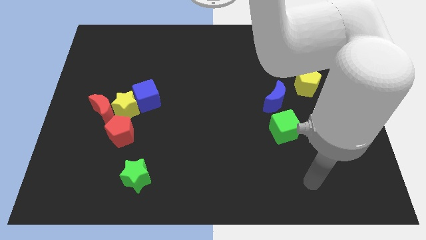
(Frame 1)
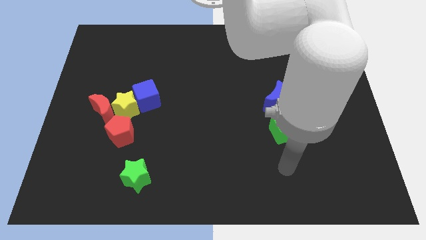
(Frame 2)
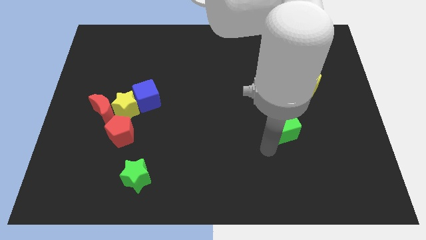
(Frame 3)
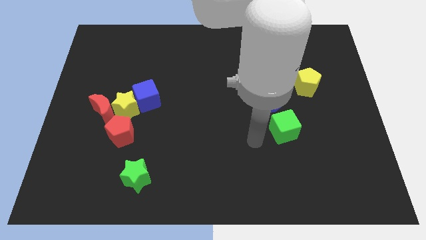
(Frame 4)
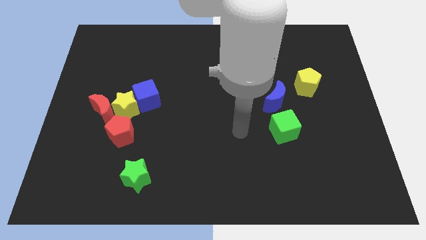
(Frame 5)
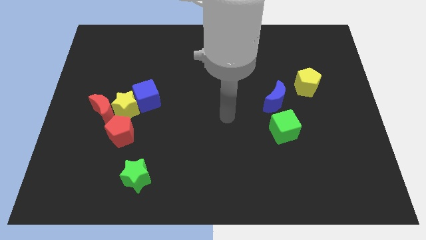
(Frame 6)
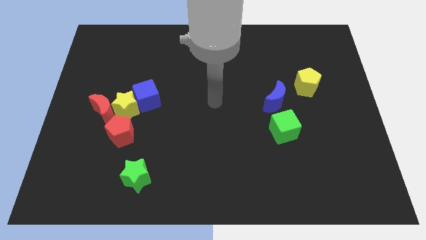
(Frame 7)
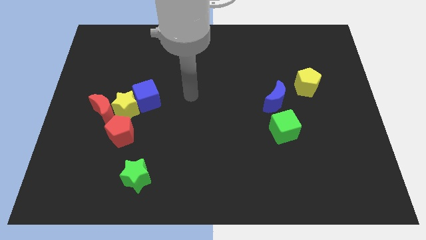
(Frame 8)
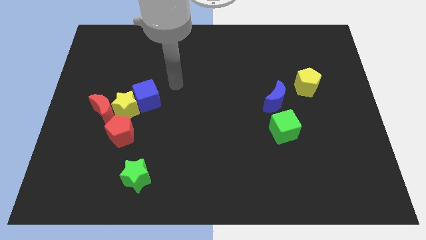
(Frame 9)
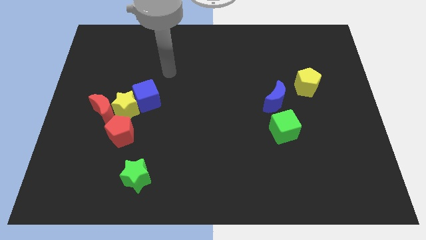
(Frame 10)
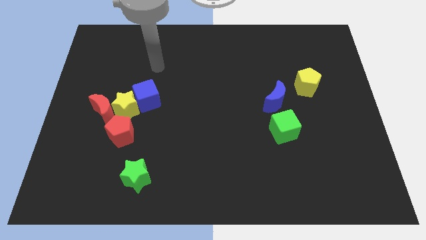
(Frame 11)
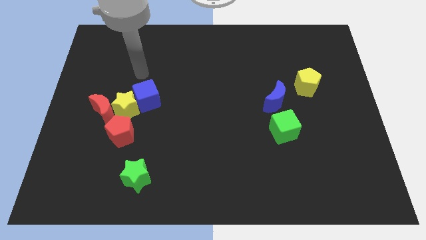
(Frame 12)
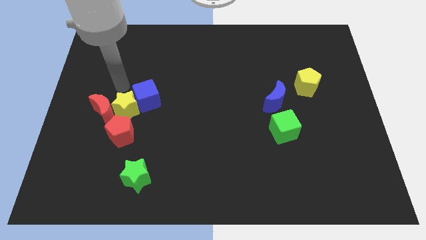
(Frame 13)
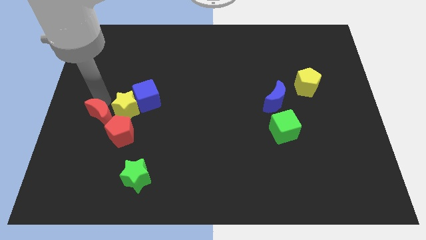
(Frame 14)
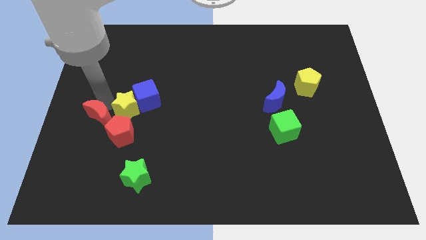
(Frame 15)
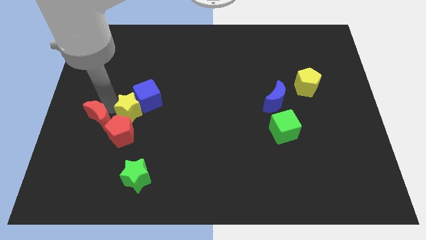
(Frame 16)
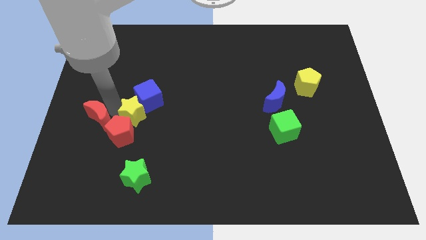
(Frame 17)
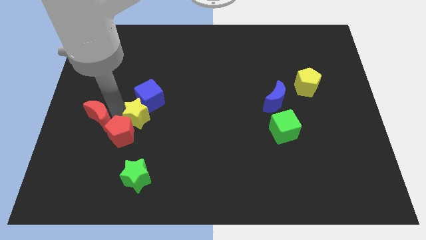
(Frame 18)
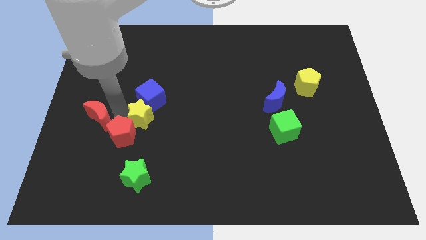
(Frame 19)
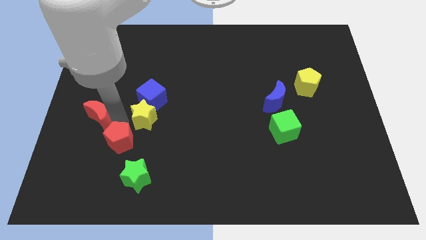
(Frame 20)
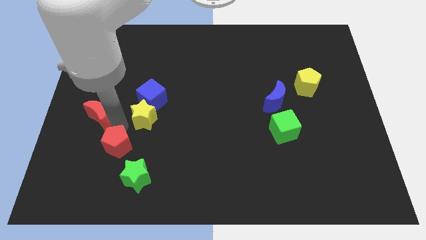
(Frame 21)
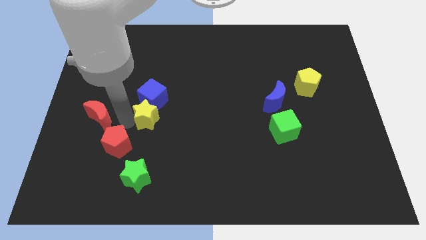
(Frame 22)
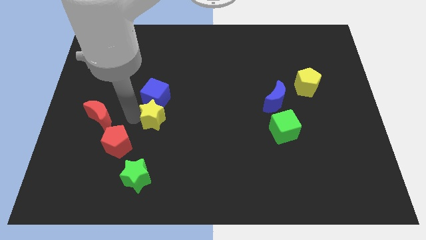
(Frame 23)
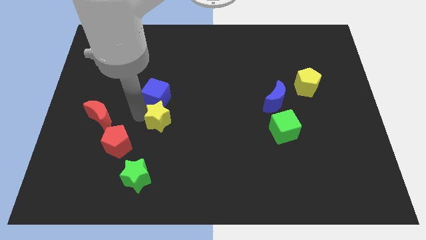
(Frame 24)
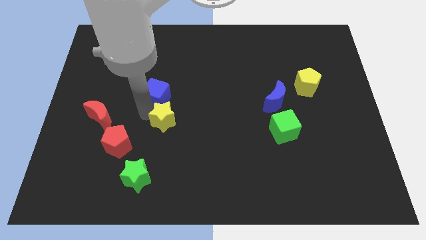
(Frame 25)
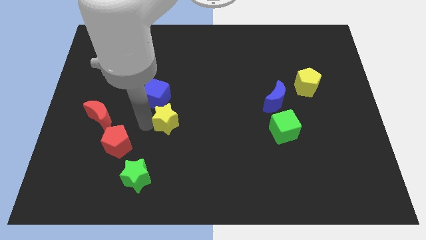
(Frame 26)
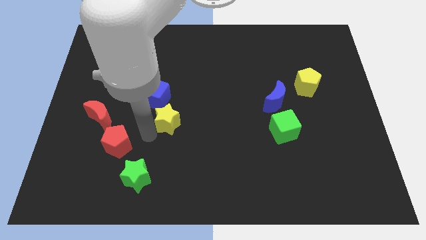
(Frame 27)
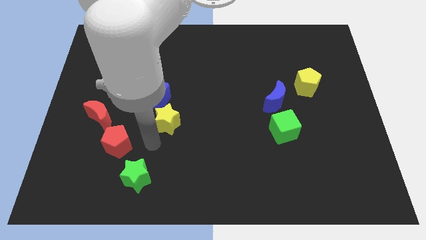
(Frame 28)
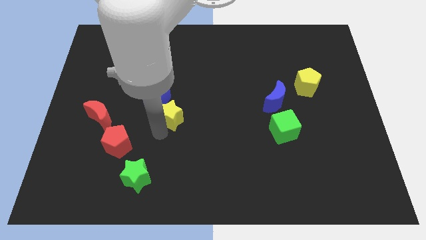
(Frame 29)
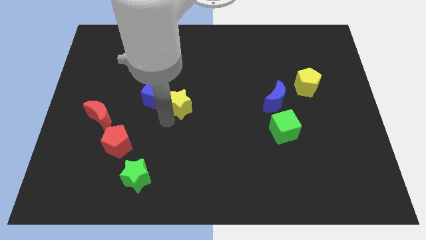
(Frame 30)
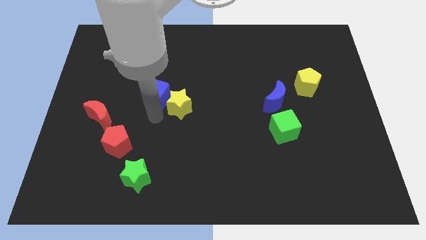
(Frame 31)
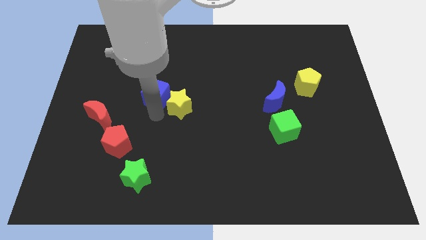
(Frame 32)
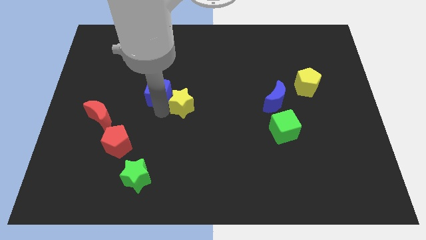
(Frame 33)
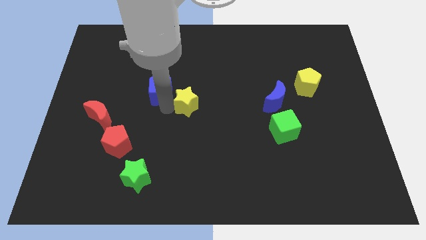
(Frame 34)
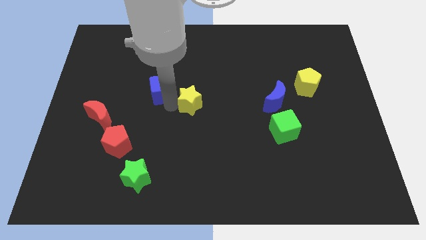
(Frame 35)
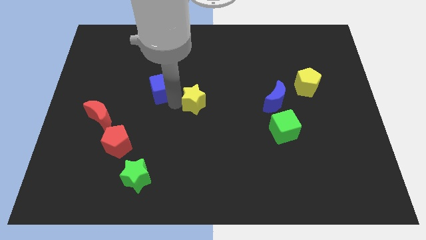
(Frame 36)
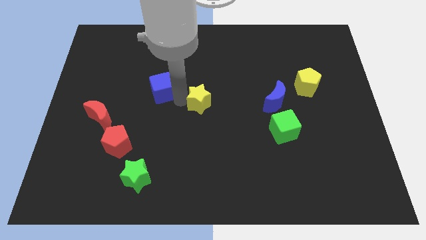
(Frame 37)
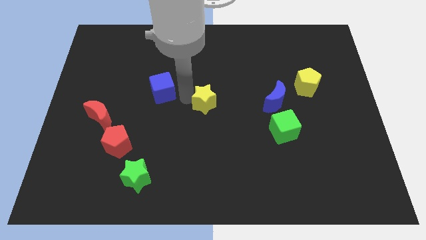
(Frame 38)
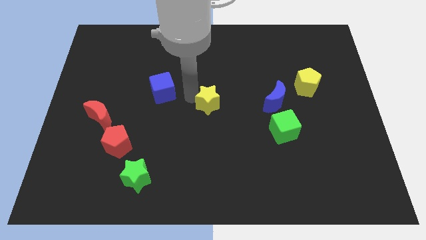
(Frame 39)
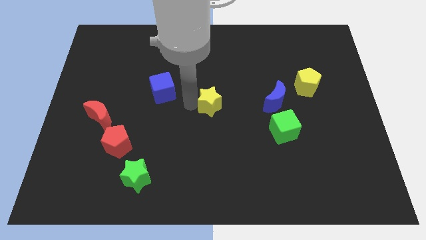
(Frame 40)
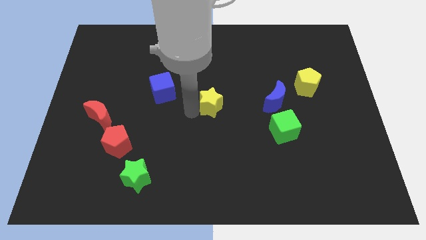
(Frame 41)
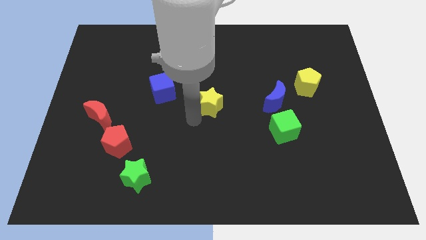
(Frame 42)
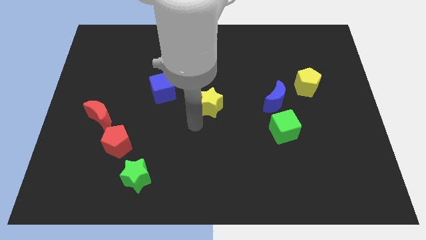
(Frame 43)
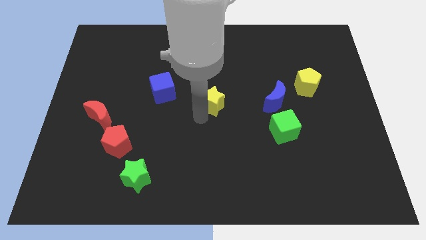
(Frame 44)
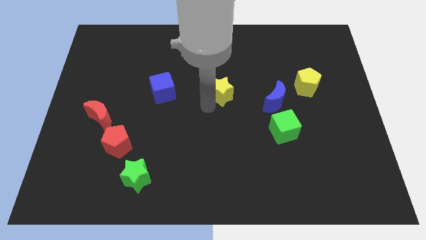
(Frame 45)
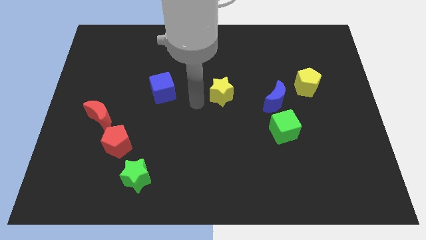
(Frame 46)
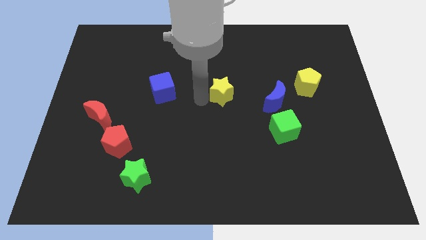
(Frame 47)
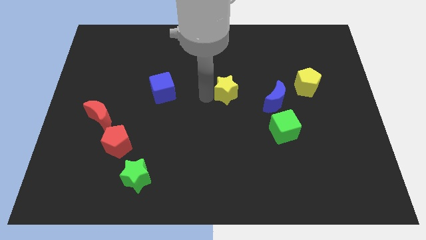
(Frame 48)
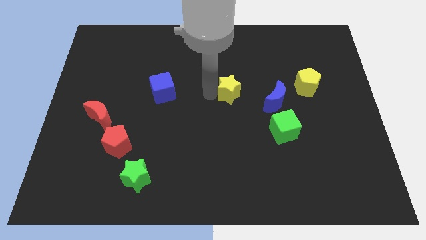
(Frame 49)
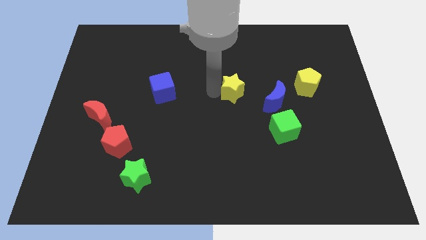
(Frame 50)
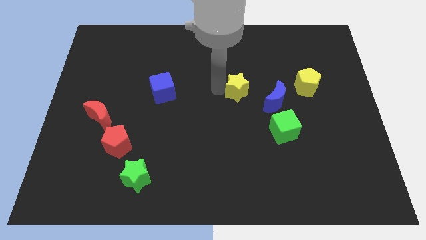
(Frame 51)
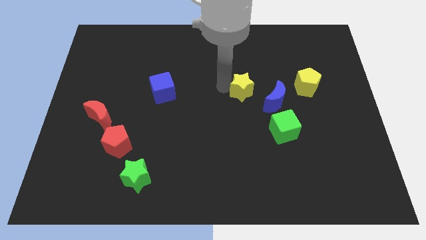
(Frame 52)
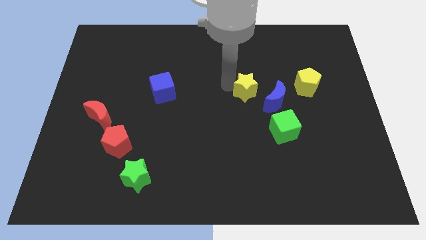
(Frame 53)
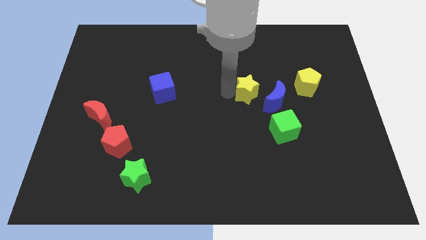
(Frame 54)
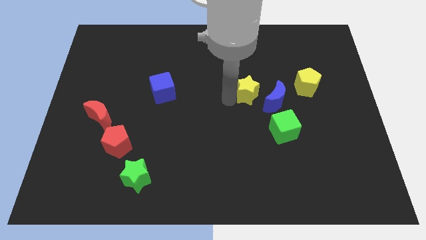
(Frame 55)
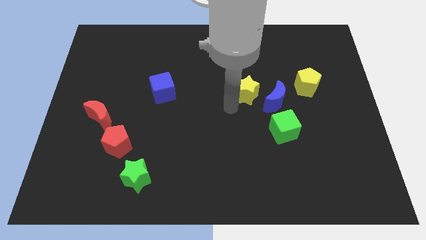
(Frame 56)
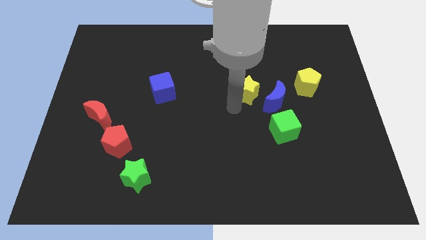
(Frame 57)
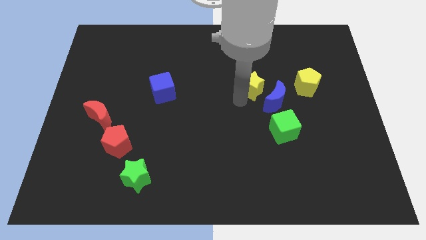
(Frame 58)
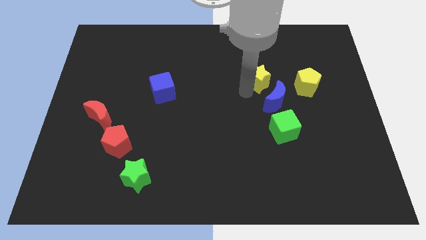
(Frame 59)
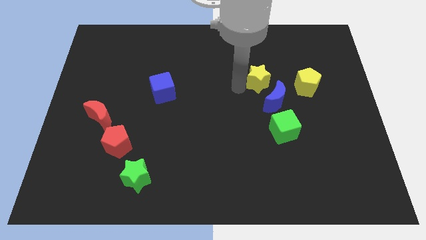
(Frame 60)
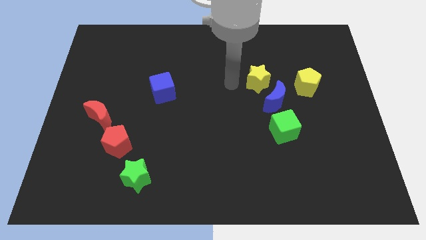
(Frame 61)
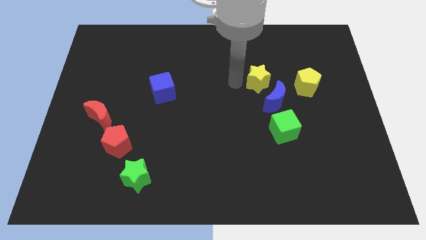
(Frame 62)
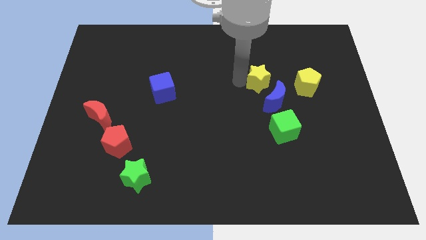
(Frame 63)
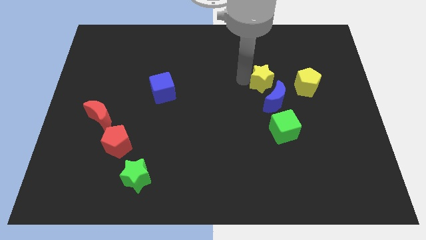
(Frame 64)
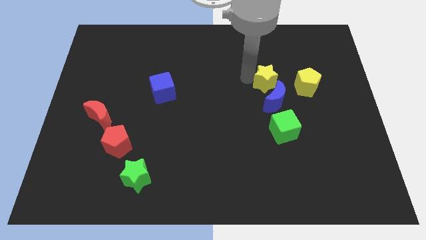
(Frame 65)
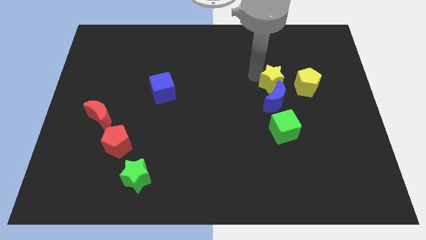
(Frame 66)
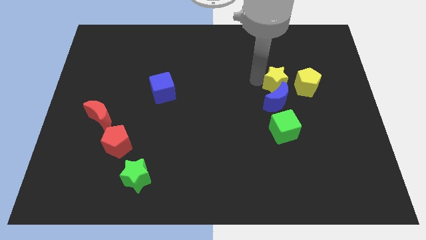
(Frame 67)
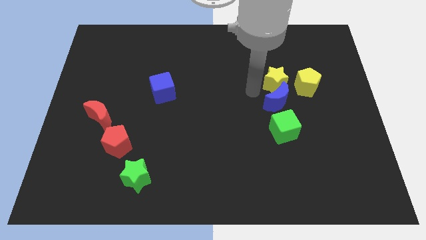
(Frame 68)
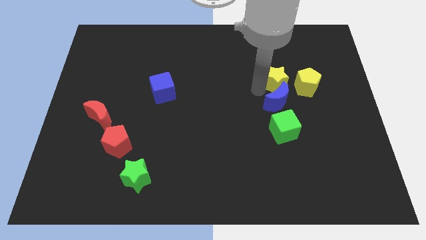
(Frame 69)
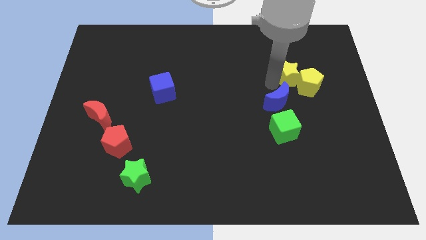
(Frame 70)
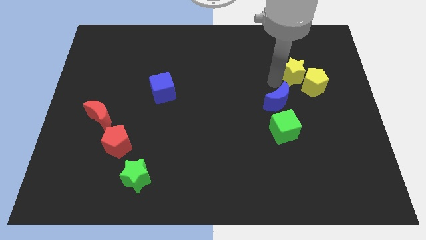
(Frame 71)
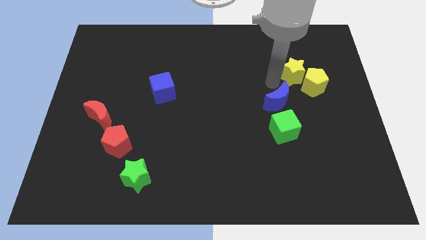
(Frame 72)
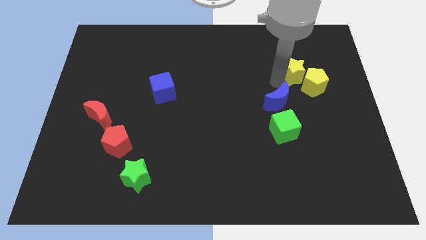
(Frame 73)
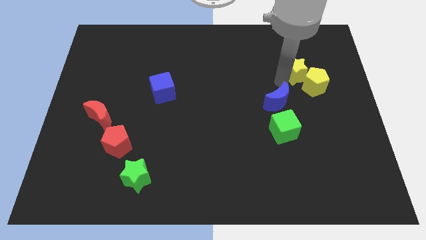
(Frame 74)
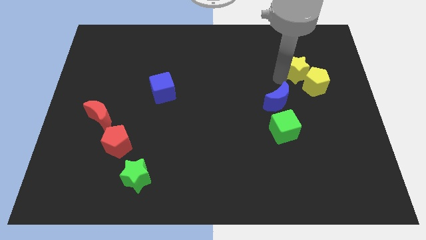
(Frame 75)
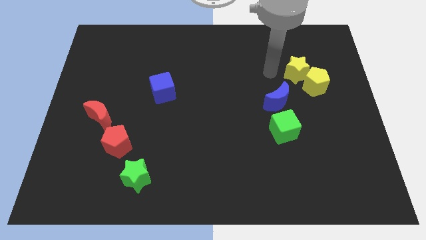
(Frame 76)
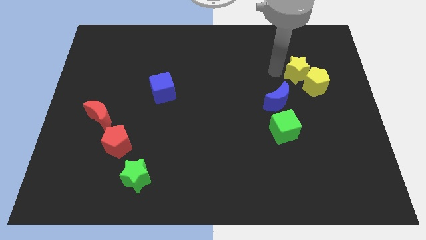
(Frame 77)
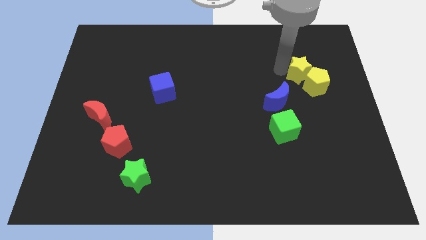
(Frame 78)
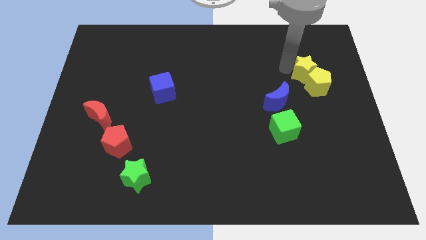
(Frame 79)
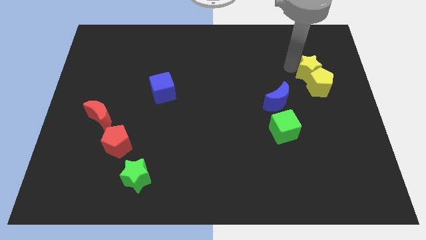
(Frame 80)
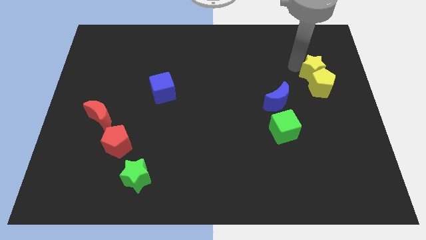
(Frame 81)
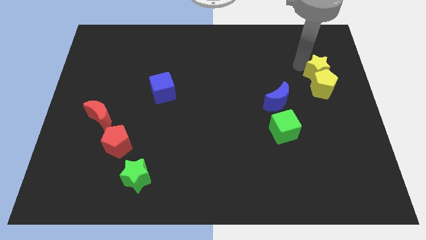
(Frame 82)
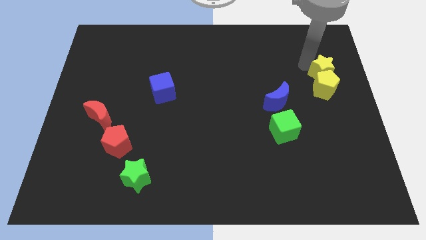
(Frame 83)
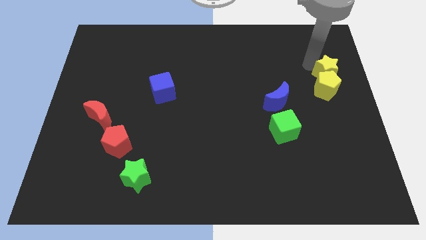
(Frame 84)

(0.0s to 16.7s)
put the yellow star to the right side of the board
